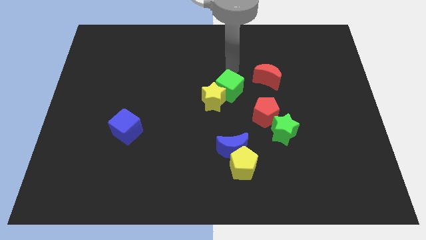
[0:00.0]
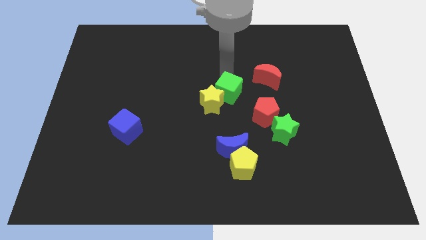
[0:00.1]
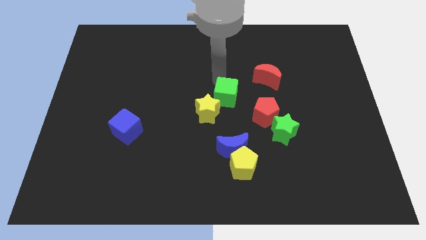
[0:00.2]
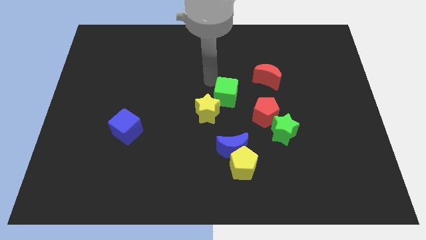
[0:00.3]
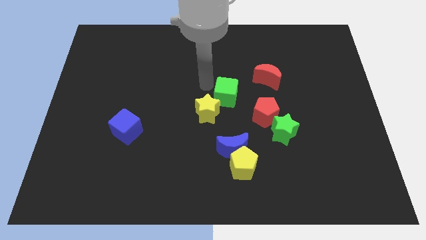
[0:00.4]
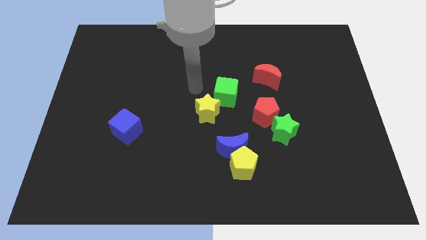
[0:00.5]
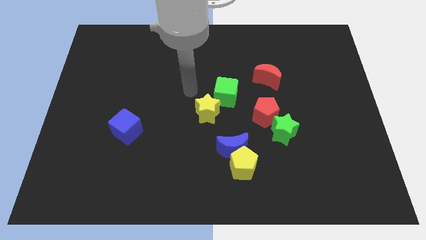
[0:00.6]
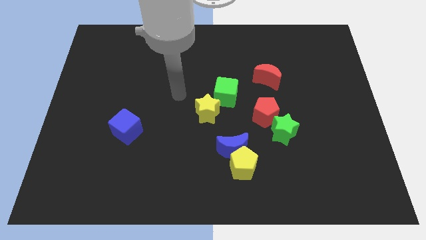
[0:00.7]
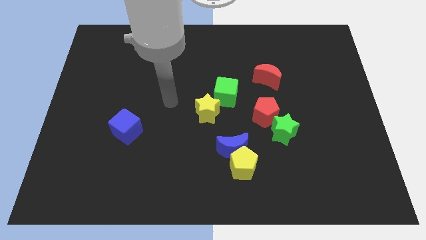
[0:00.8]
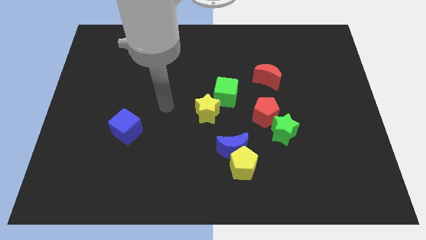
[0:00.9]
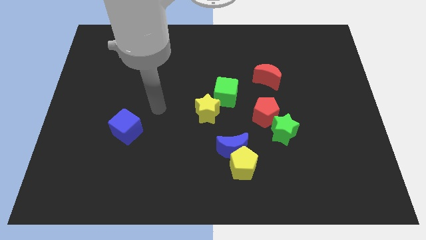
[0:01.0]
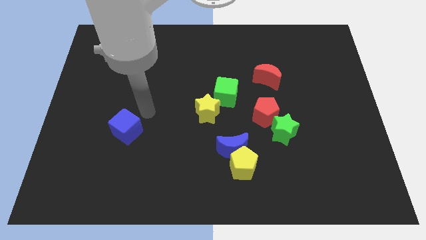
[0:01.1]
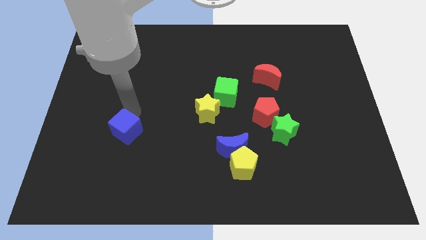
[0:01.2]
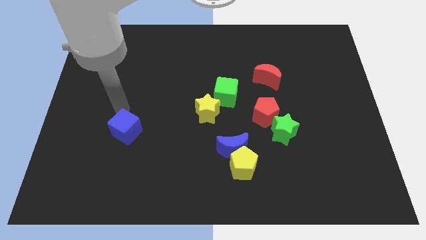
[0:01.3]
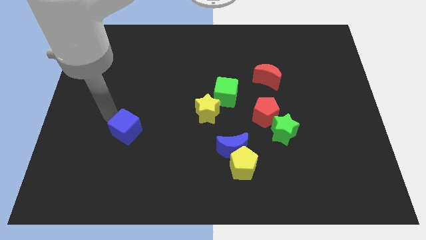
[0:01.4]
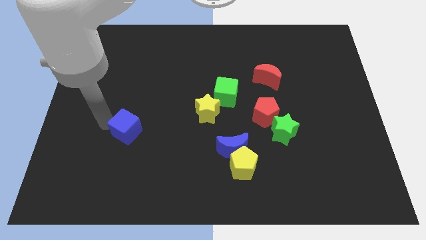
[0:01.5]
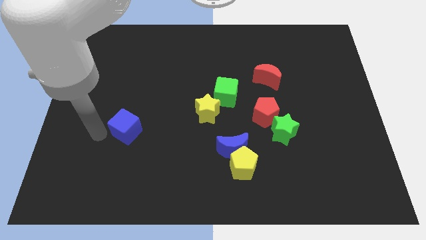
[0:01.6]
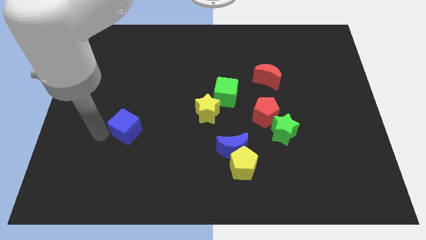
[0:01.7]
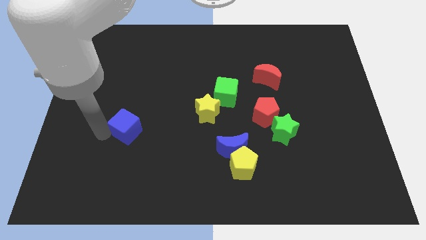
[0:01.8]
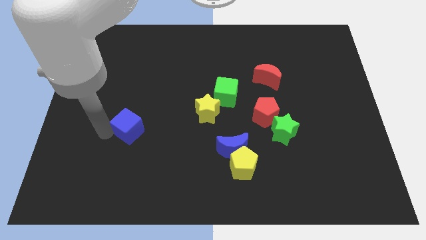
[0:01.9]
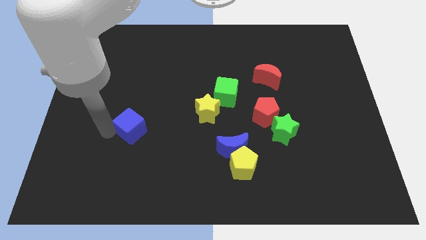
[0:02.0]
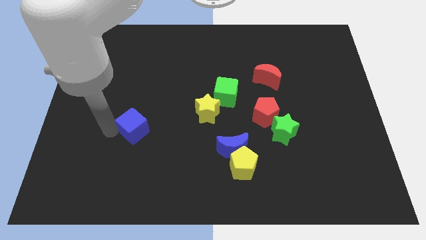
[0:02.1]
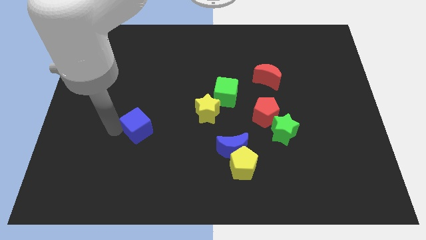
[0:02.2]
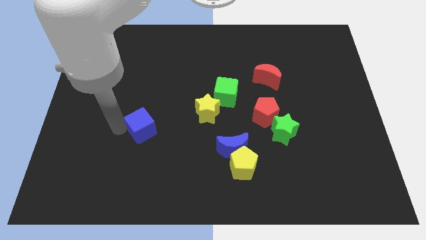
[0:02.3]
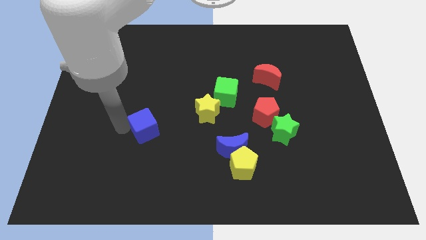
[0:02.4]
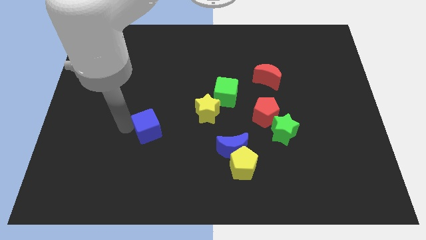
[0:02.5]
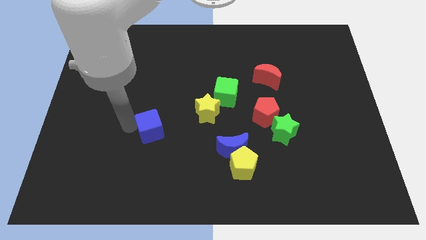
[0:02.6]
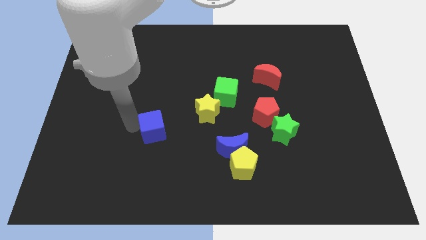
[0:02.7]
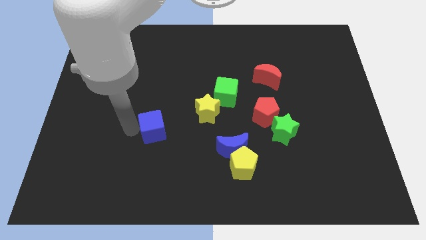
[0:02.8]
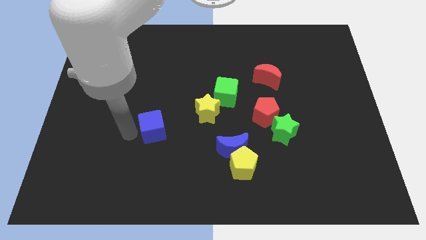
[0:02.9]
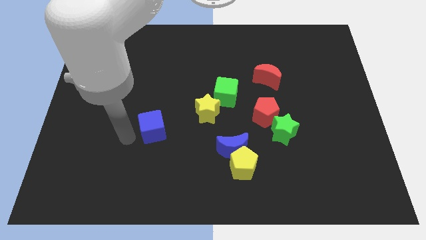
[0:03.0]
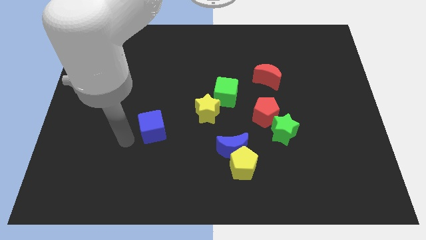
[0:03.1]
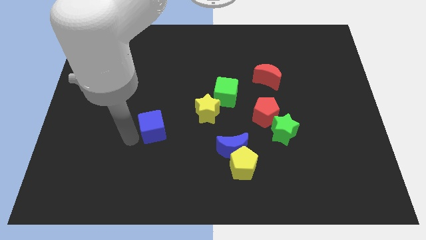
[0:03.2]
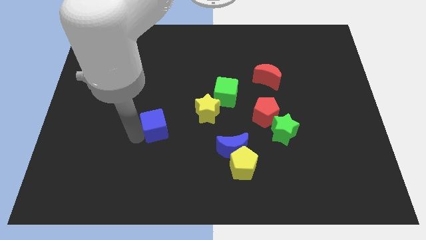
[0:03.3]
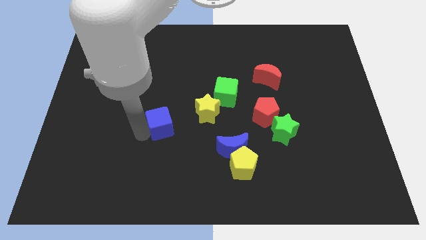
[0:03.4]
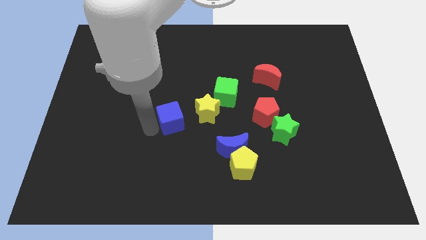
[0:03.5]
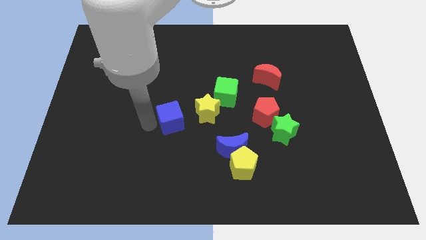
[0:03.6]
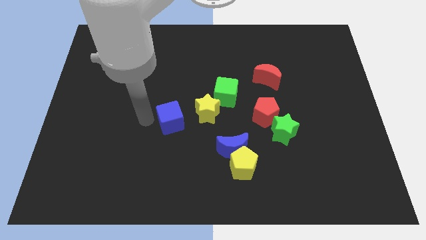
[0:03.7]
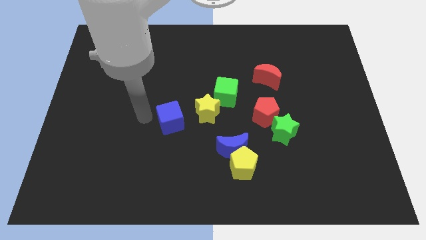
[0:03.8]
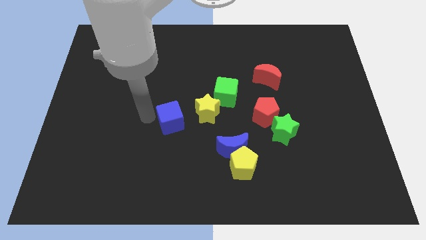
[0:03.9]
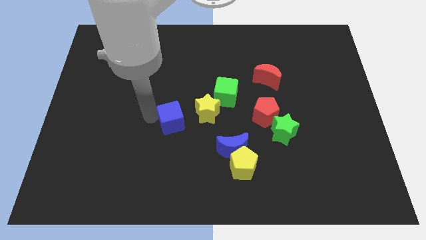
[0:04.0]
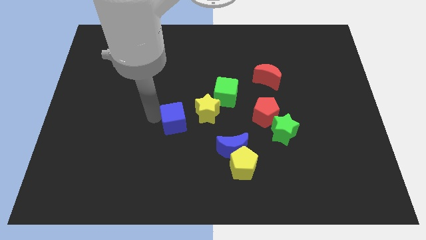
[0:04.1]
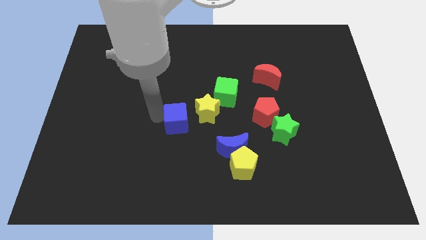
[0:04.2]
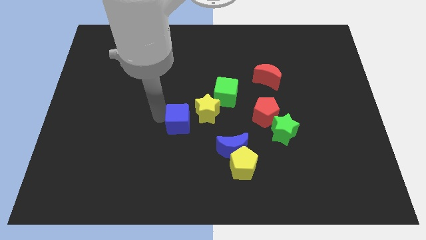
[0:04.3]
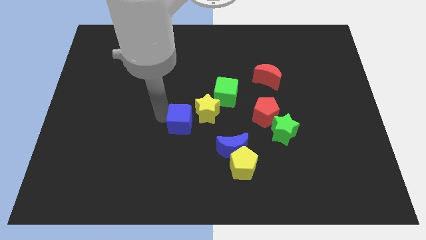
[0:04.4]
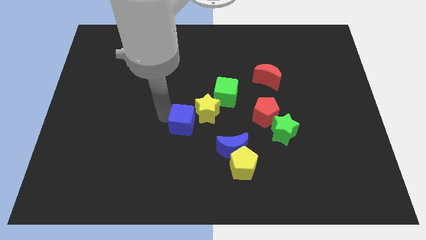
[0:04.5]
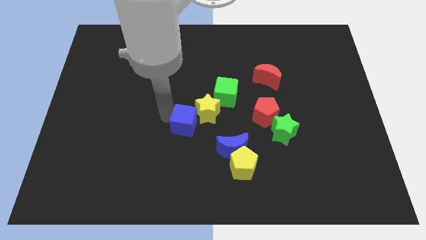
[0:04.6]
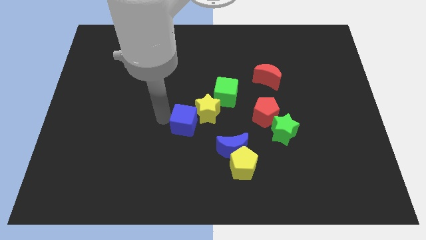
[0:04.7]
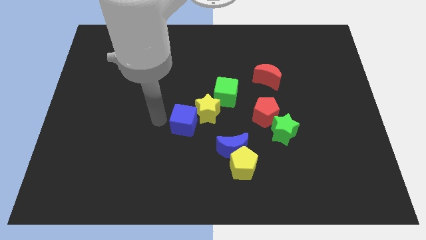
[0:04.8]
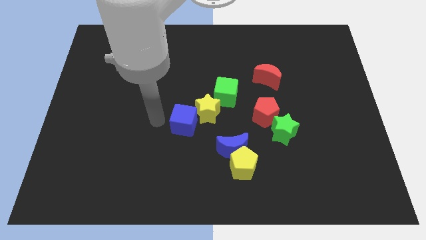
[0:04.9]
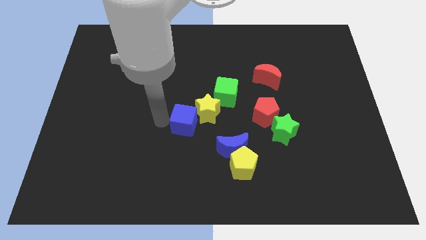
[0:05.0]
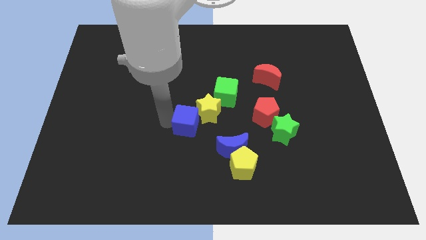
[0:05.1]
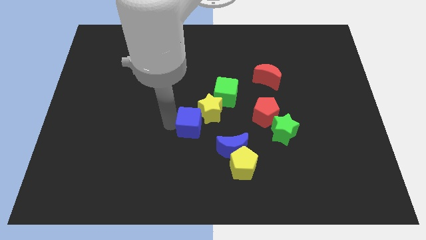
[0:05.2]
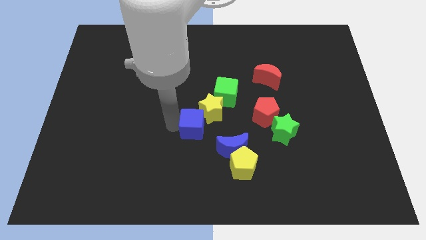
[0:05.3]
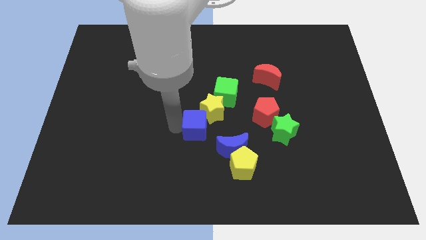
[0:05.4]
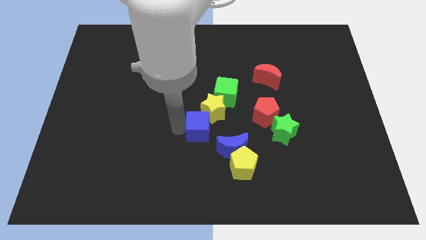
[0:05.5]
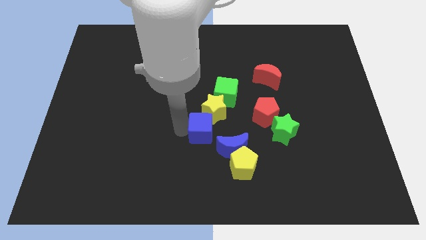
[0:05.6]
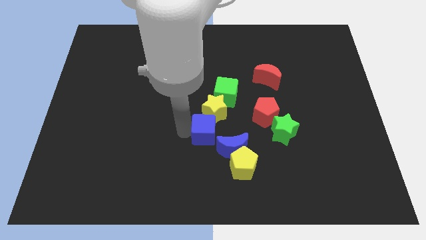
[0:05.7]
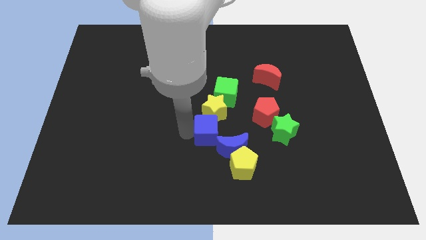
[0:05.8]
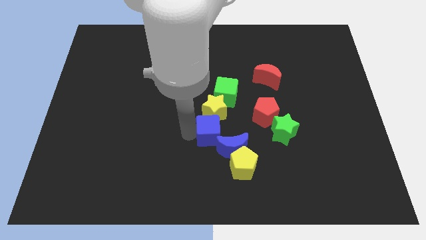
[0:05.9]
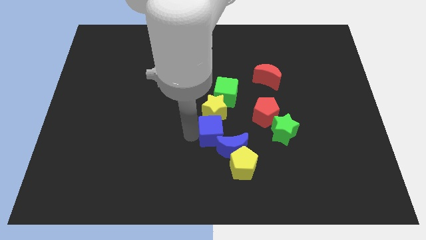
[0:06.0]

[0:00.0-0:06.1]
put the blue cube to the bottom right side of the yellow star
